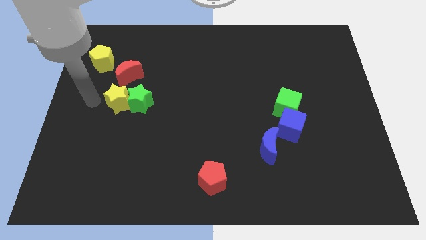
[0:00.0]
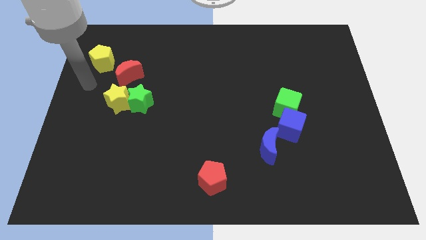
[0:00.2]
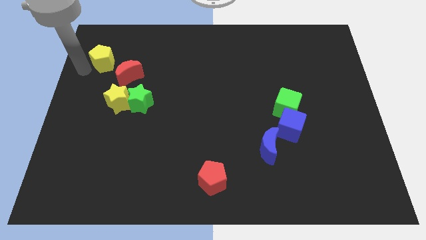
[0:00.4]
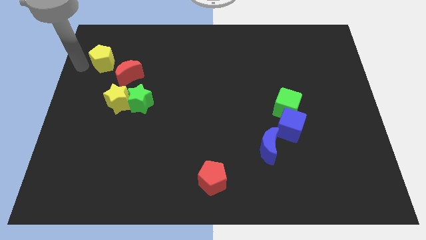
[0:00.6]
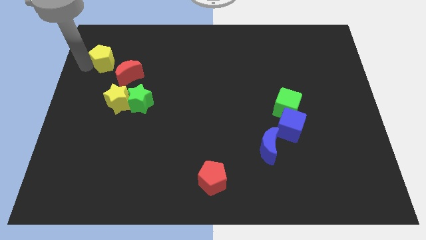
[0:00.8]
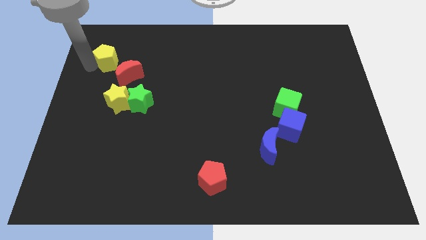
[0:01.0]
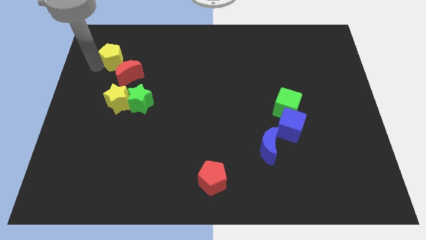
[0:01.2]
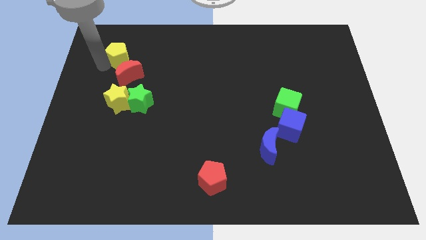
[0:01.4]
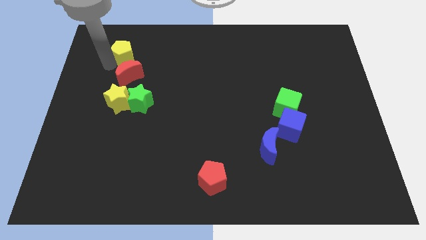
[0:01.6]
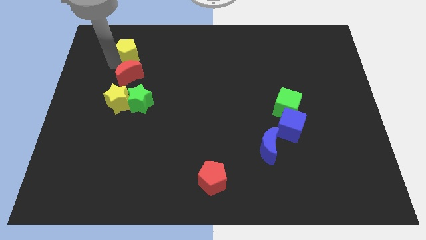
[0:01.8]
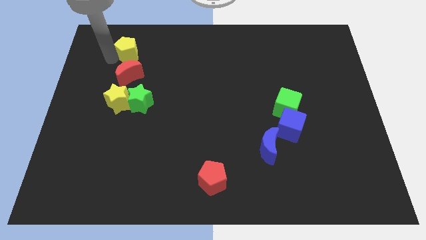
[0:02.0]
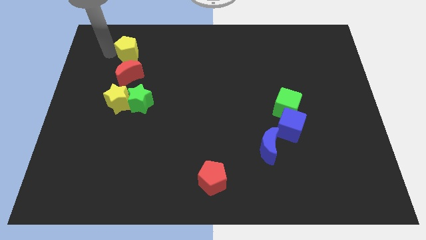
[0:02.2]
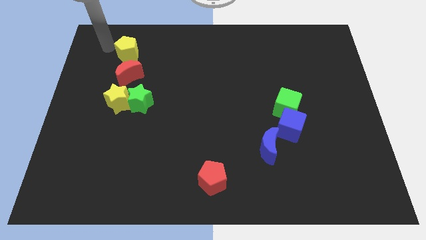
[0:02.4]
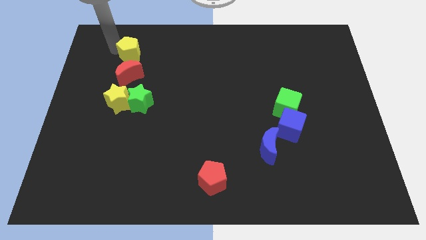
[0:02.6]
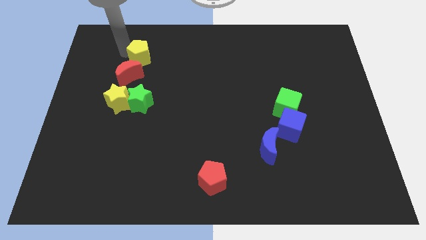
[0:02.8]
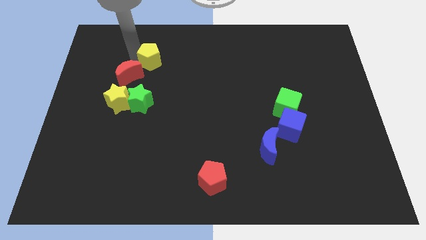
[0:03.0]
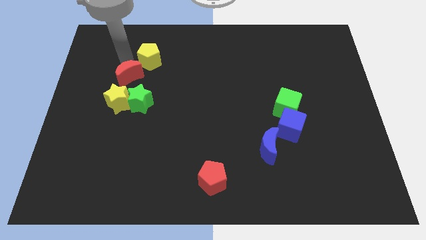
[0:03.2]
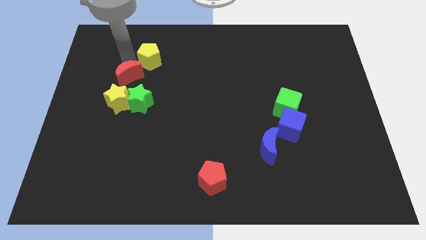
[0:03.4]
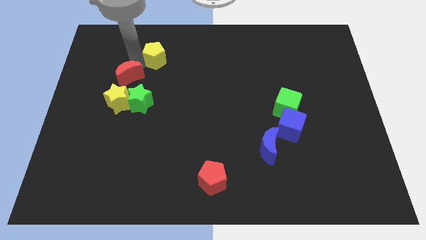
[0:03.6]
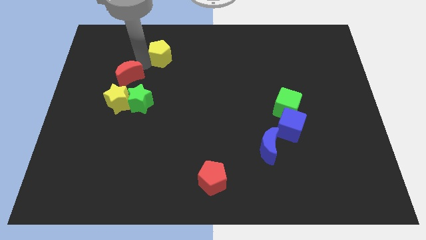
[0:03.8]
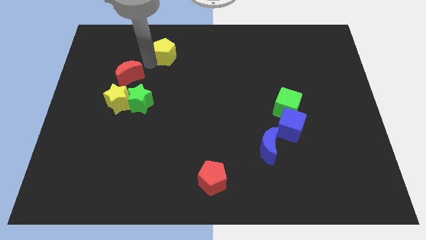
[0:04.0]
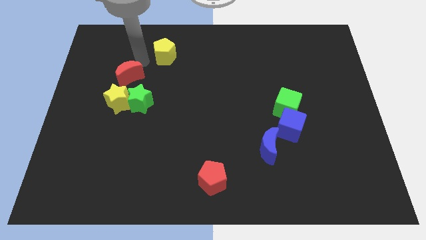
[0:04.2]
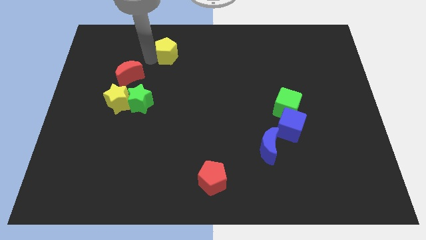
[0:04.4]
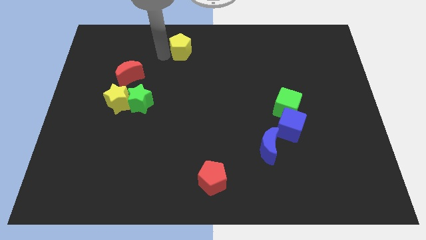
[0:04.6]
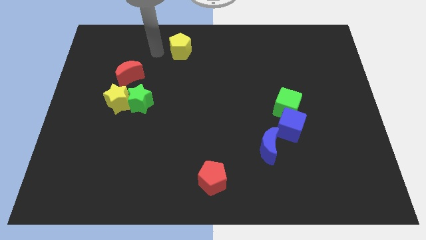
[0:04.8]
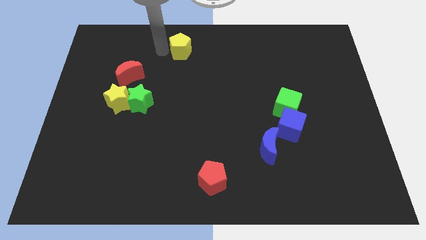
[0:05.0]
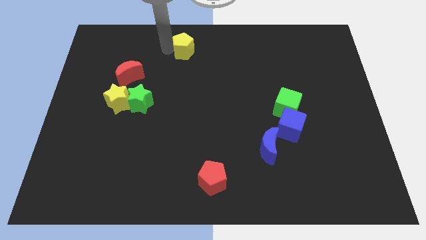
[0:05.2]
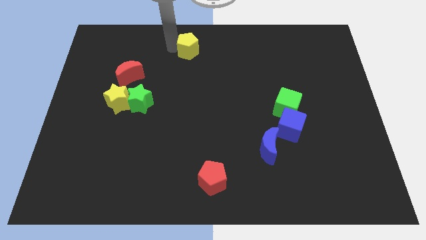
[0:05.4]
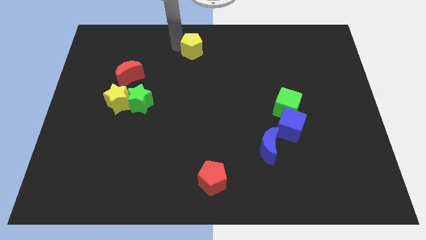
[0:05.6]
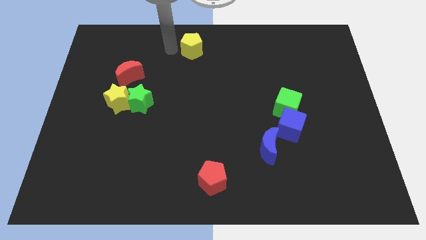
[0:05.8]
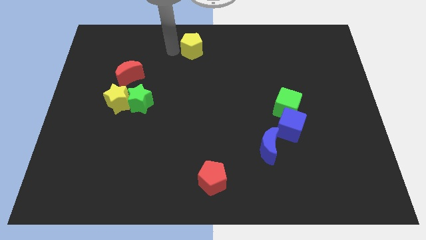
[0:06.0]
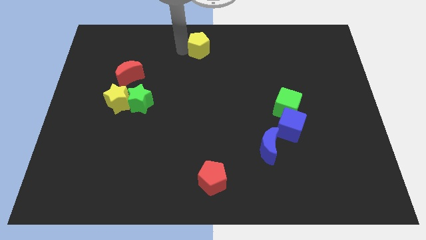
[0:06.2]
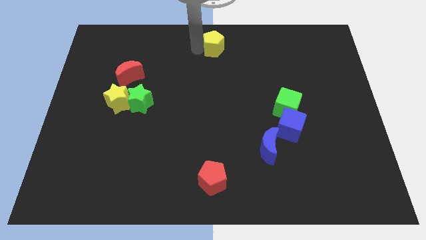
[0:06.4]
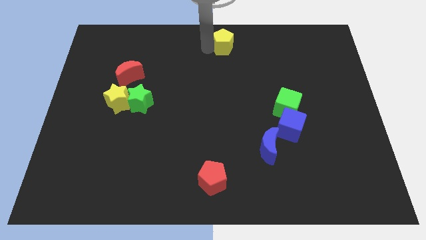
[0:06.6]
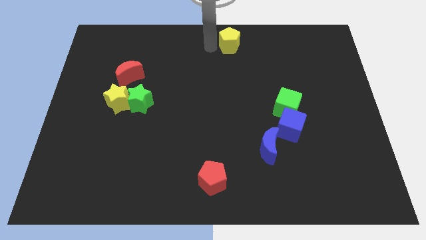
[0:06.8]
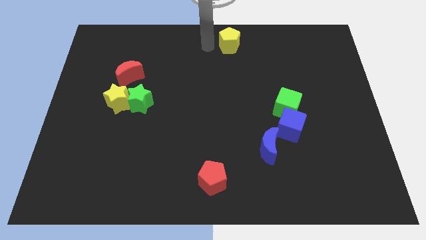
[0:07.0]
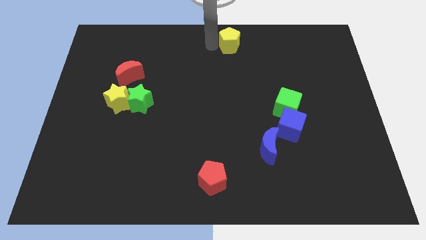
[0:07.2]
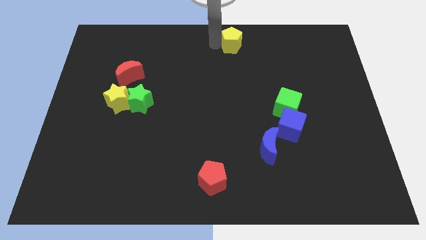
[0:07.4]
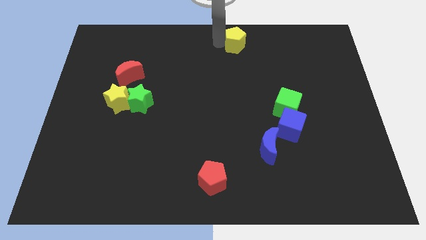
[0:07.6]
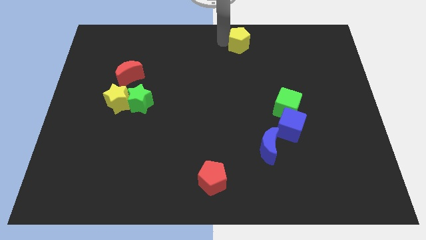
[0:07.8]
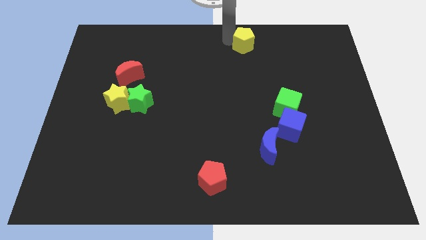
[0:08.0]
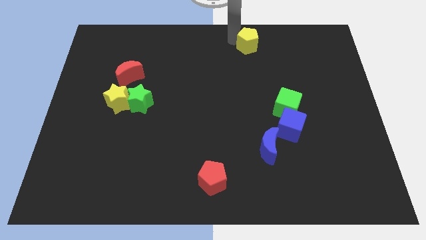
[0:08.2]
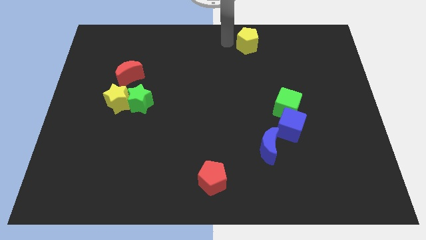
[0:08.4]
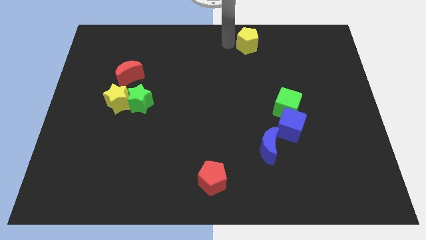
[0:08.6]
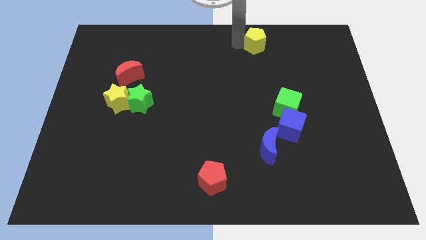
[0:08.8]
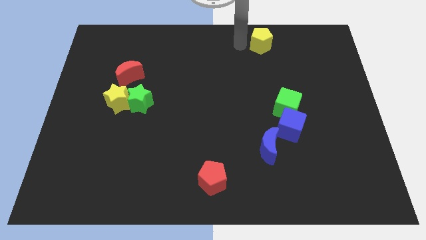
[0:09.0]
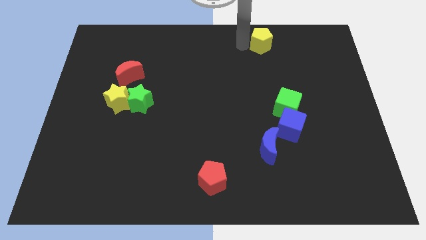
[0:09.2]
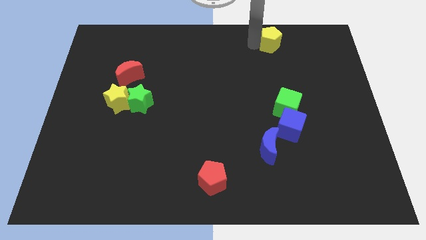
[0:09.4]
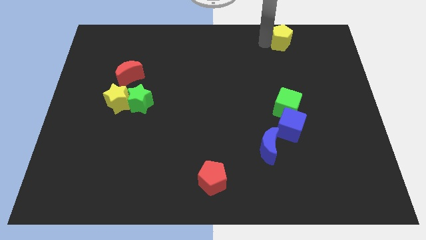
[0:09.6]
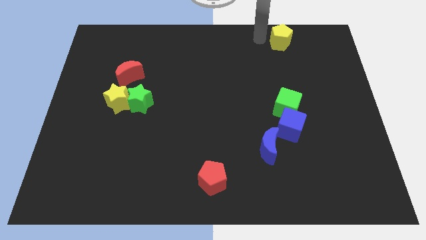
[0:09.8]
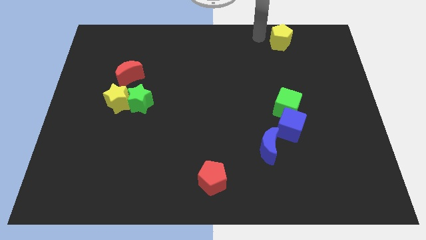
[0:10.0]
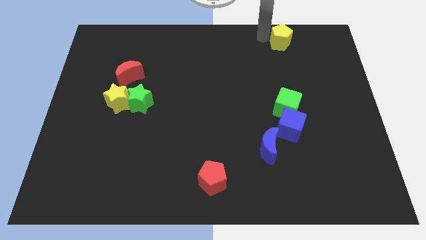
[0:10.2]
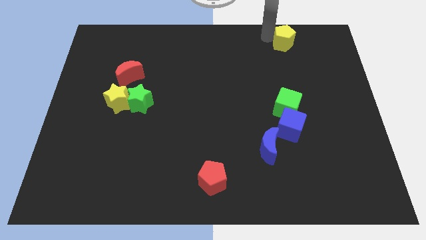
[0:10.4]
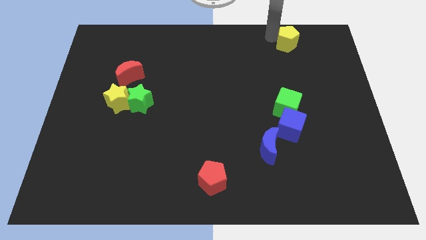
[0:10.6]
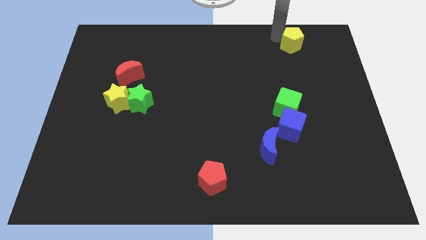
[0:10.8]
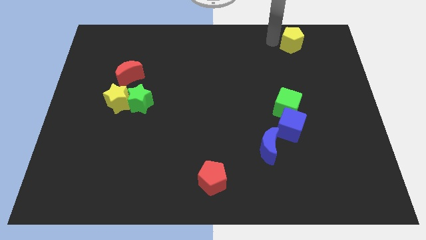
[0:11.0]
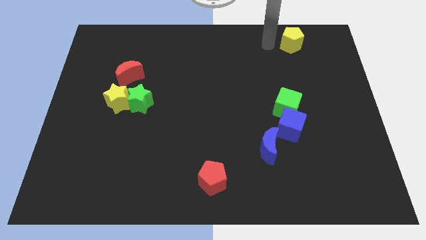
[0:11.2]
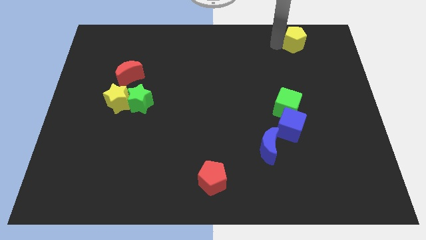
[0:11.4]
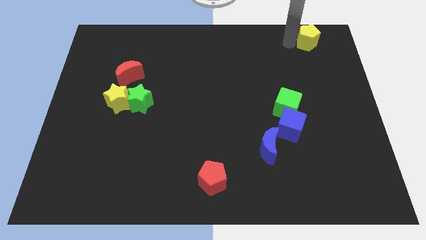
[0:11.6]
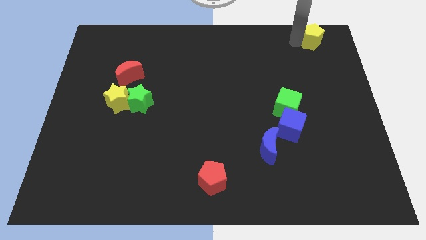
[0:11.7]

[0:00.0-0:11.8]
slide the yellow pentagon to the top right
